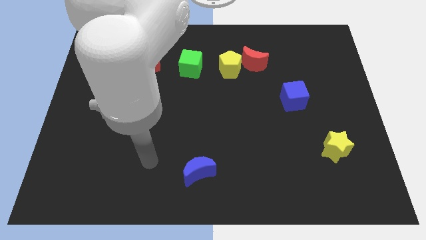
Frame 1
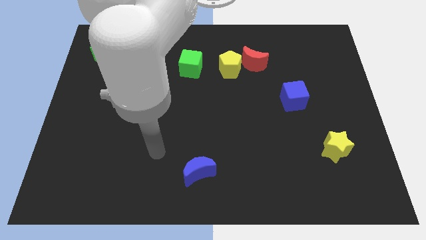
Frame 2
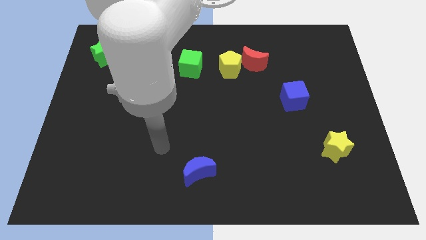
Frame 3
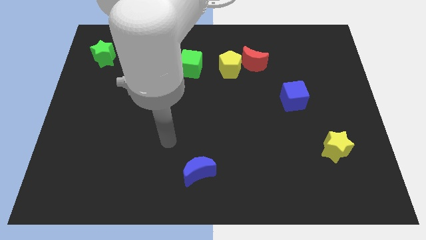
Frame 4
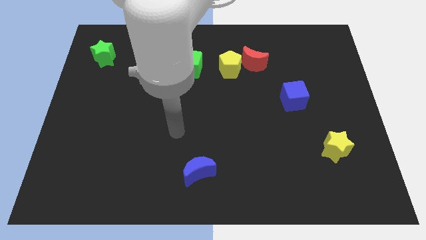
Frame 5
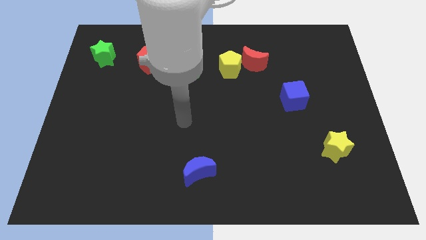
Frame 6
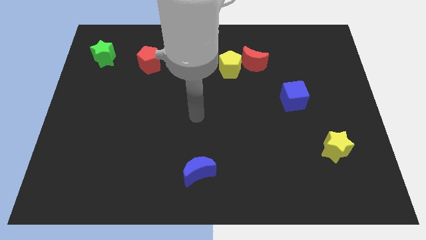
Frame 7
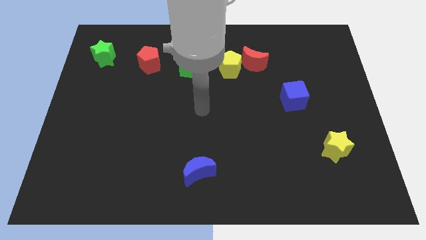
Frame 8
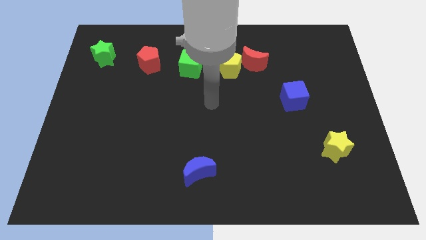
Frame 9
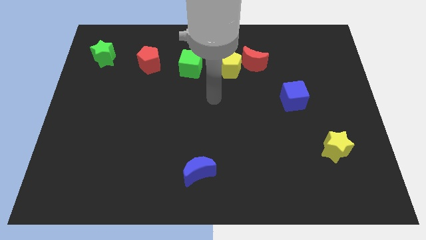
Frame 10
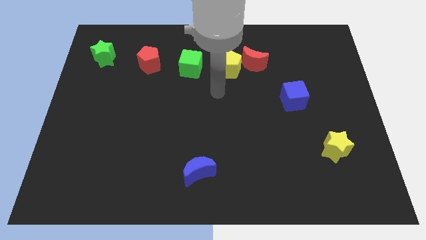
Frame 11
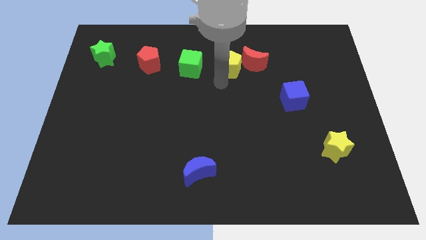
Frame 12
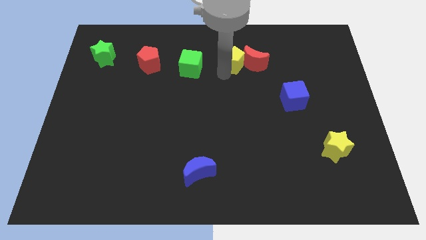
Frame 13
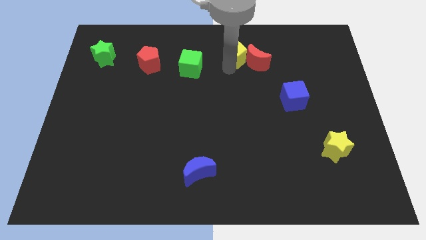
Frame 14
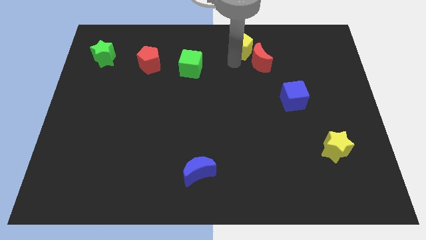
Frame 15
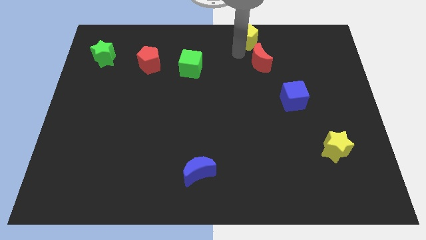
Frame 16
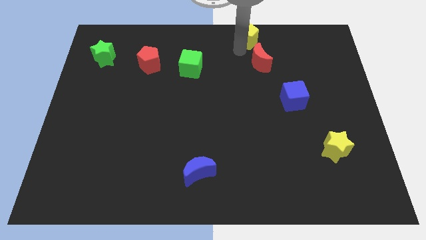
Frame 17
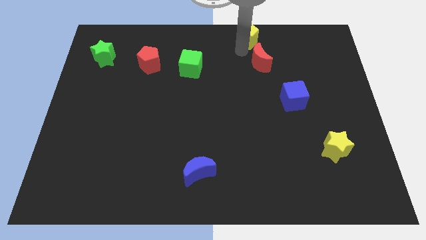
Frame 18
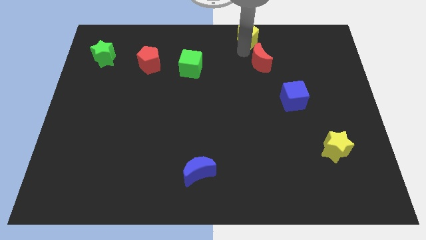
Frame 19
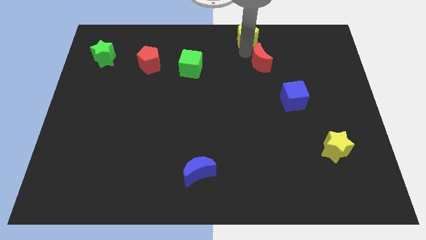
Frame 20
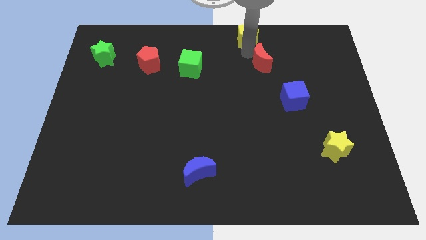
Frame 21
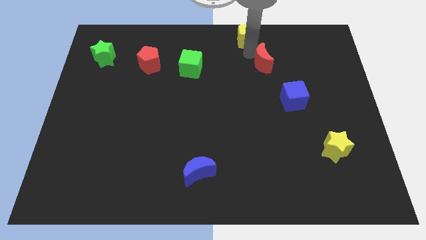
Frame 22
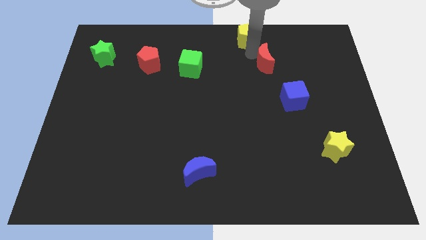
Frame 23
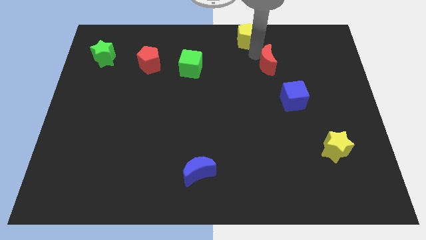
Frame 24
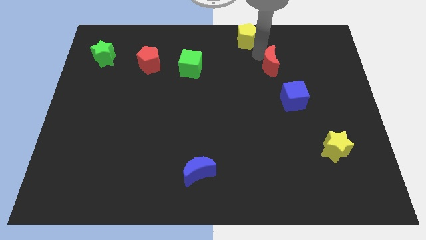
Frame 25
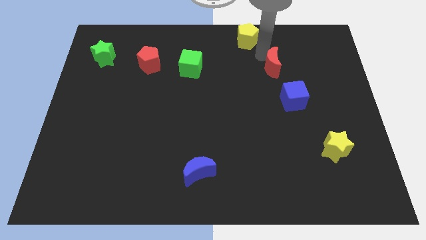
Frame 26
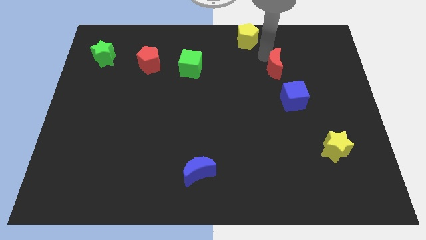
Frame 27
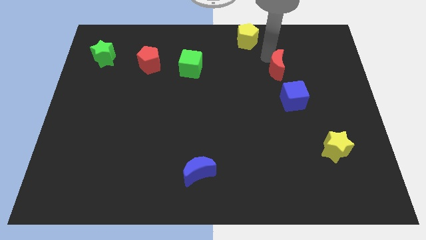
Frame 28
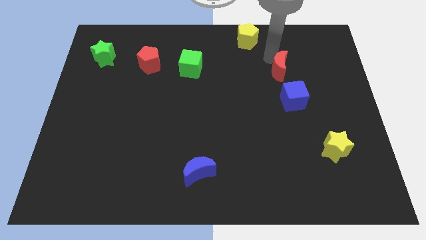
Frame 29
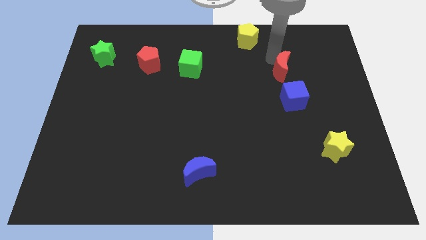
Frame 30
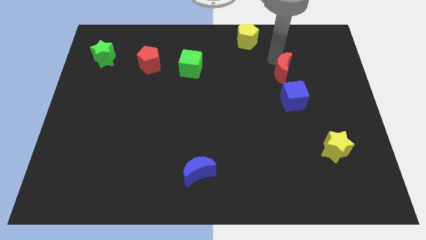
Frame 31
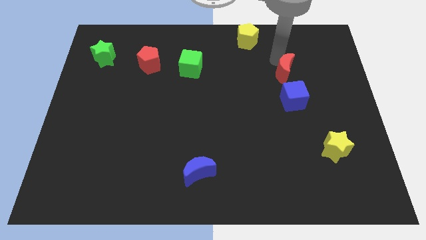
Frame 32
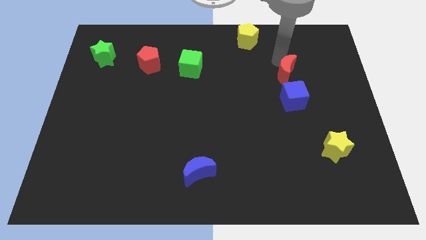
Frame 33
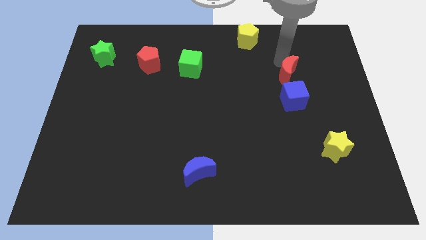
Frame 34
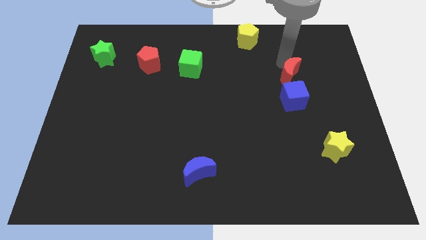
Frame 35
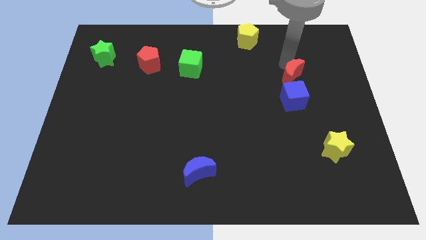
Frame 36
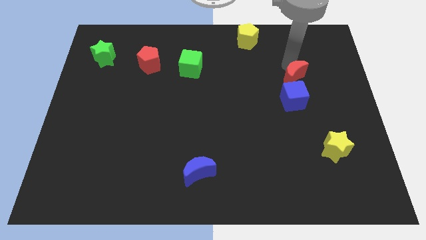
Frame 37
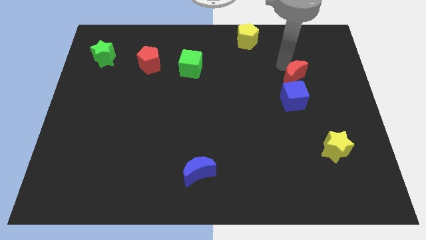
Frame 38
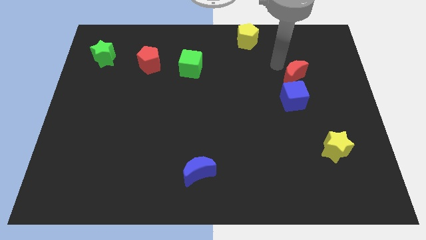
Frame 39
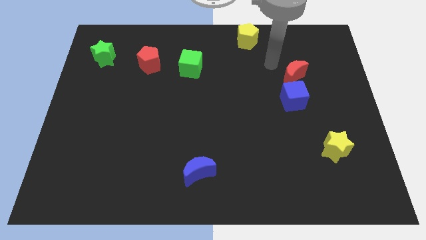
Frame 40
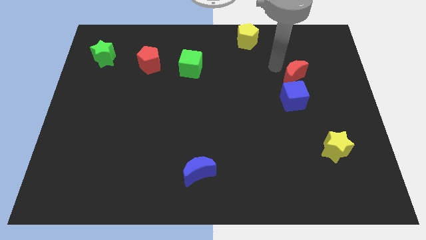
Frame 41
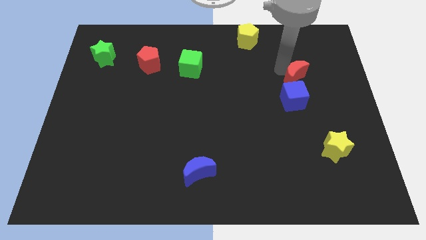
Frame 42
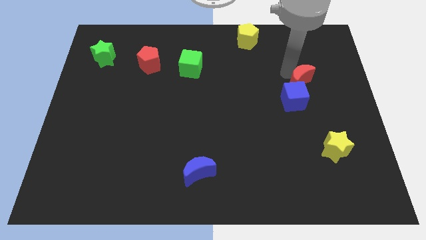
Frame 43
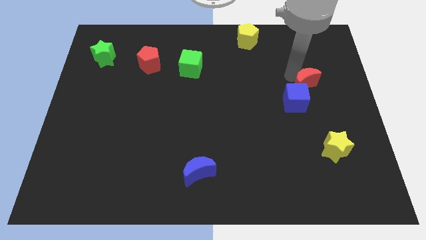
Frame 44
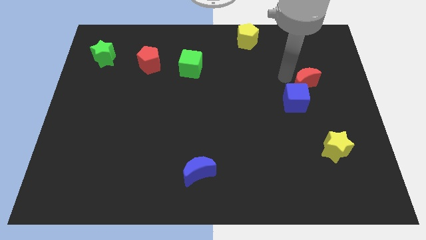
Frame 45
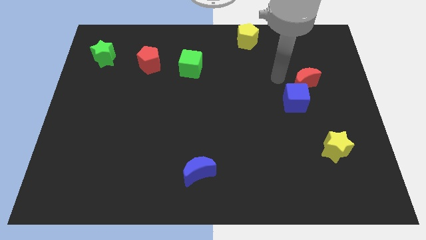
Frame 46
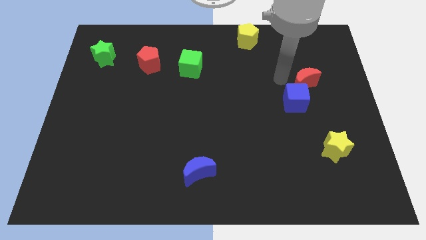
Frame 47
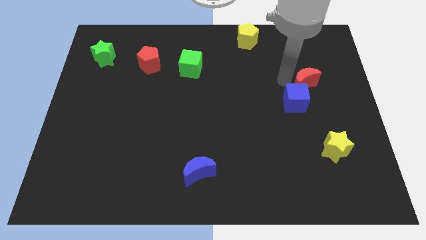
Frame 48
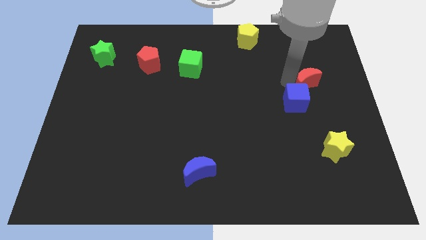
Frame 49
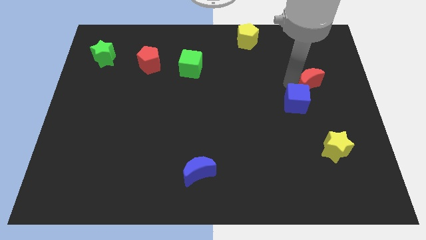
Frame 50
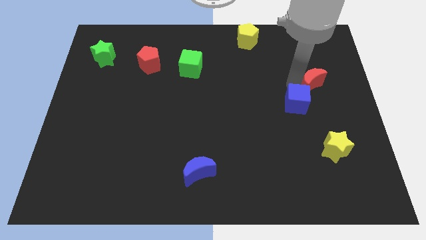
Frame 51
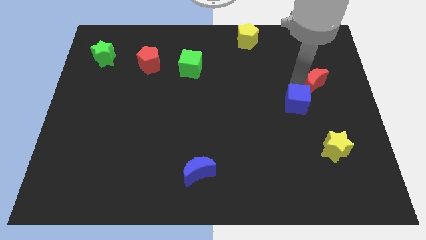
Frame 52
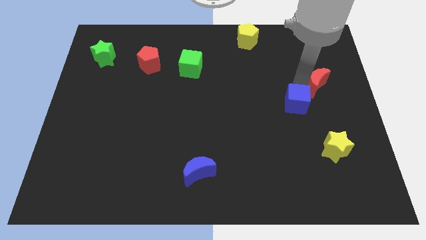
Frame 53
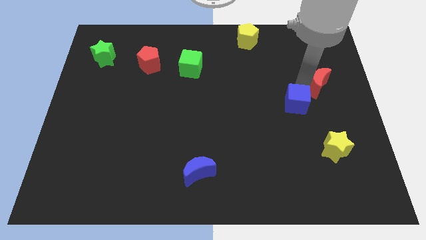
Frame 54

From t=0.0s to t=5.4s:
put the red moon to the right side

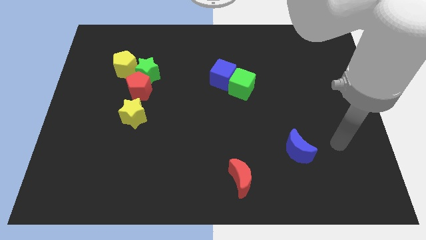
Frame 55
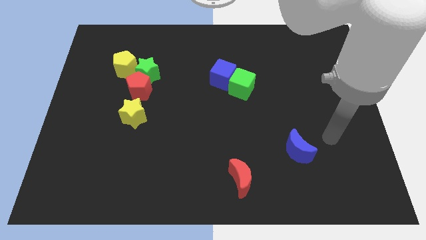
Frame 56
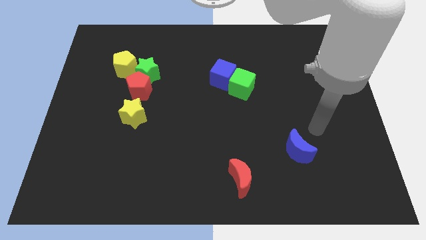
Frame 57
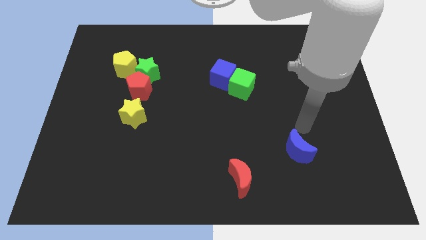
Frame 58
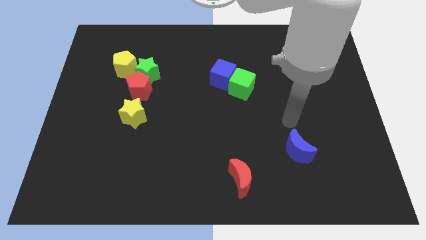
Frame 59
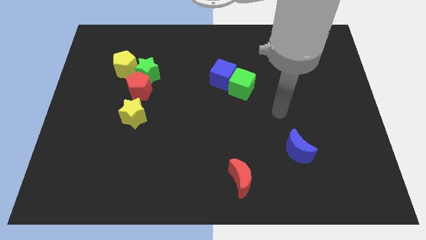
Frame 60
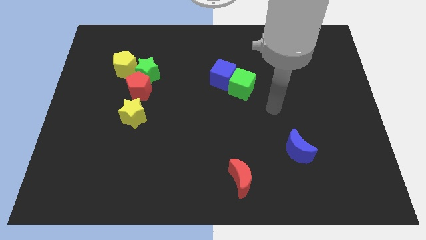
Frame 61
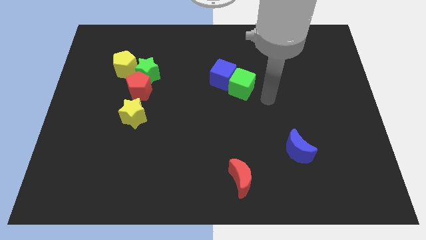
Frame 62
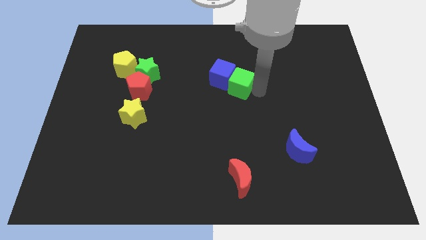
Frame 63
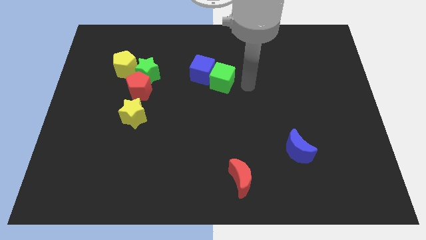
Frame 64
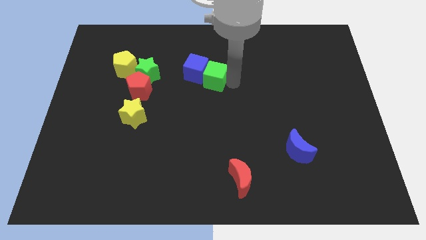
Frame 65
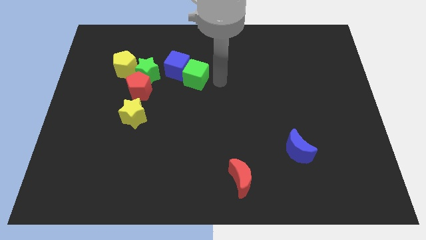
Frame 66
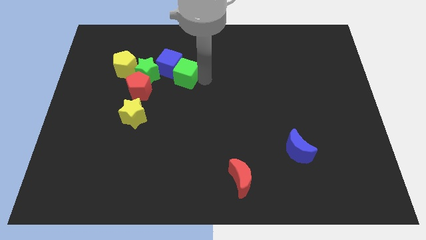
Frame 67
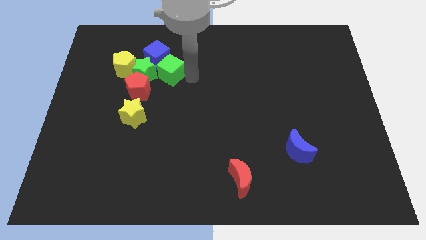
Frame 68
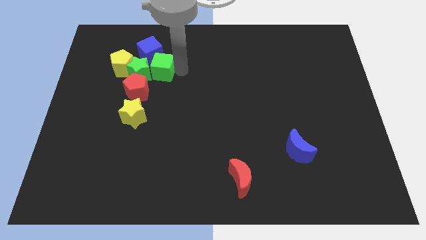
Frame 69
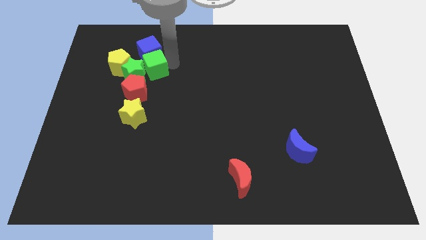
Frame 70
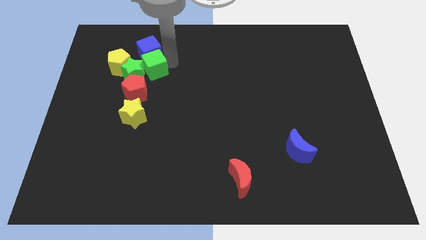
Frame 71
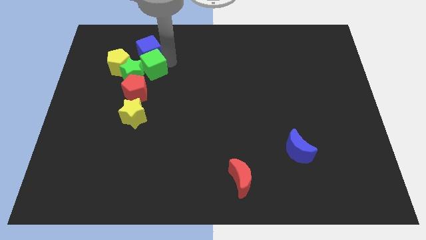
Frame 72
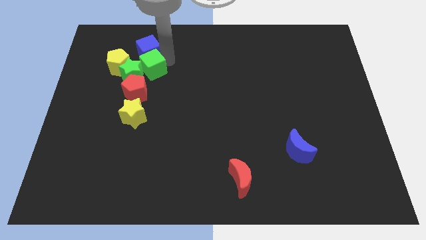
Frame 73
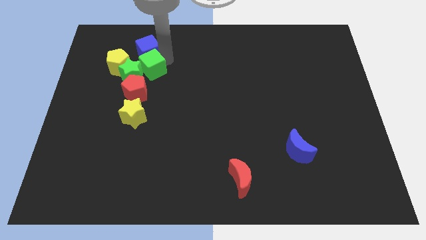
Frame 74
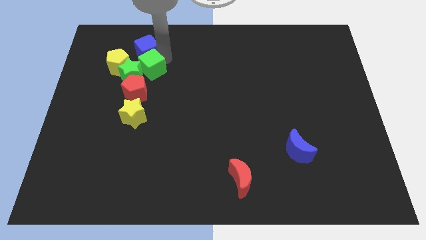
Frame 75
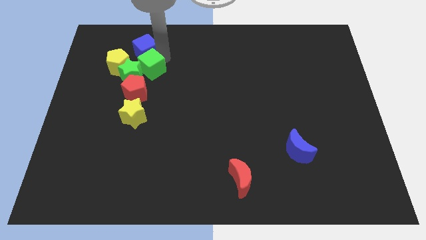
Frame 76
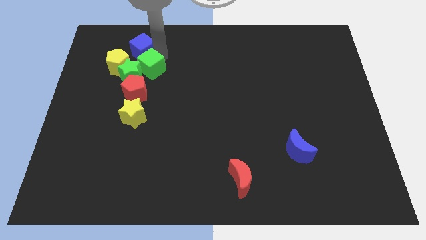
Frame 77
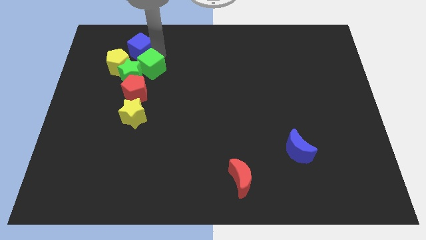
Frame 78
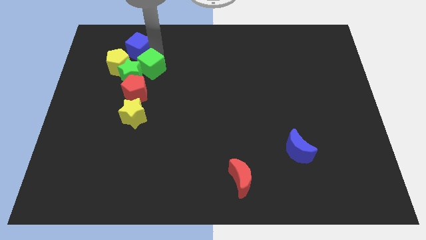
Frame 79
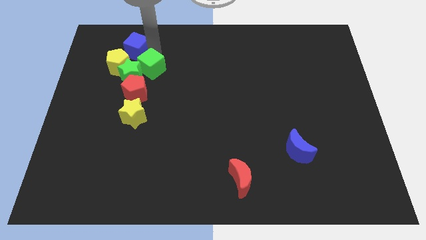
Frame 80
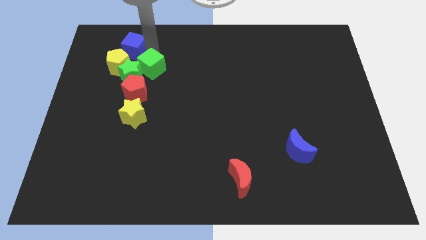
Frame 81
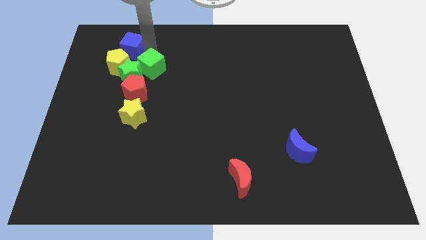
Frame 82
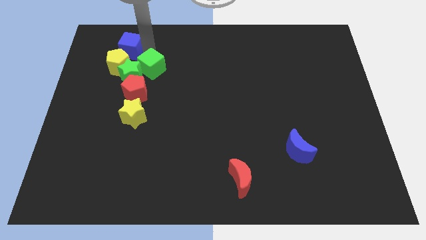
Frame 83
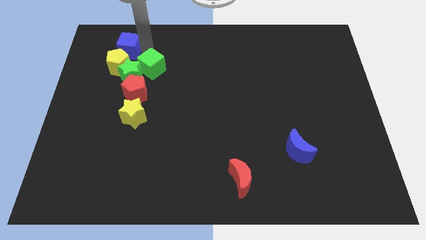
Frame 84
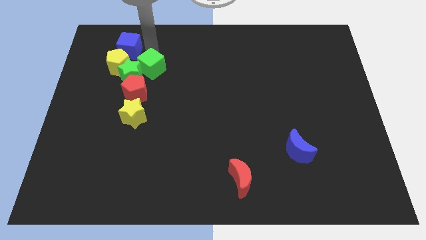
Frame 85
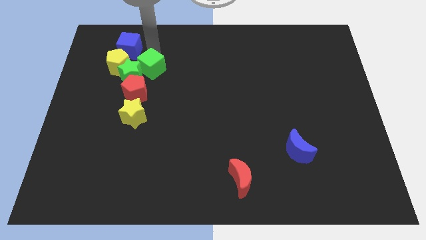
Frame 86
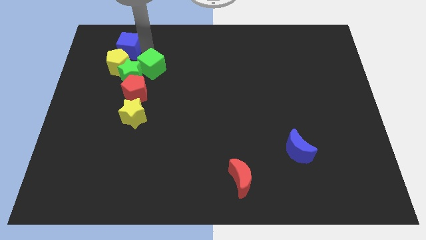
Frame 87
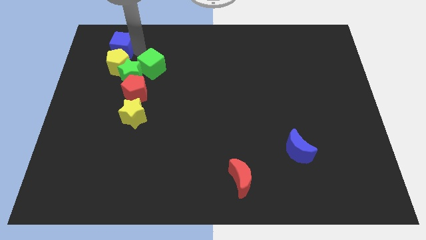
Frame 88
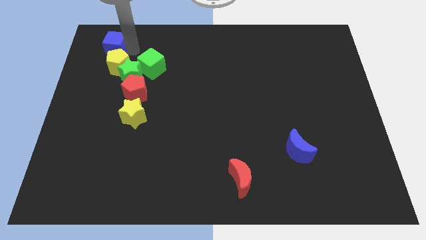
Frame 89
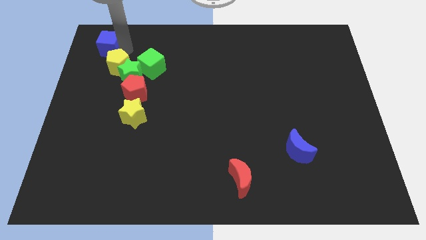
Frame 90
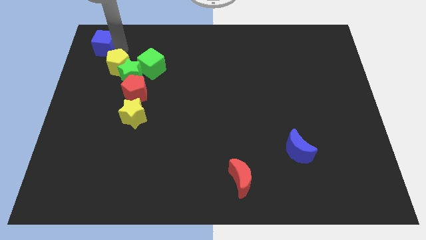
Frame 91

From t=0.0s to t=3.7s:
move the blue cube to the top left corner
